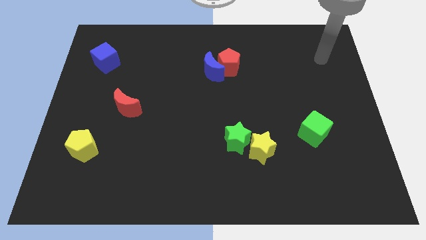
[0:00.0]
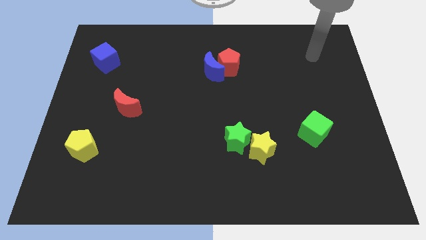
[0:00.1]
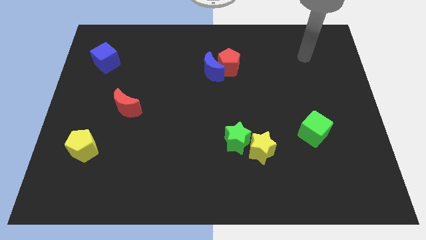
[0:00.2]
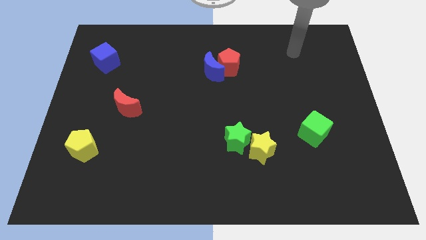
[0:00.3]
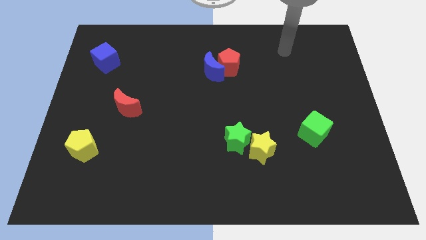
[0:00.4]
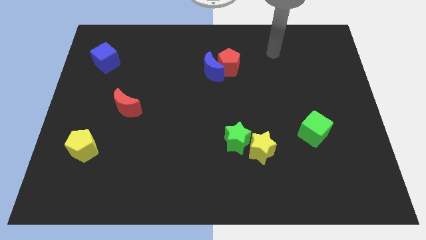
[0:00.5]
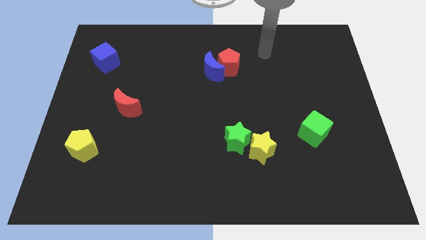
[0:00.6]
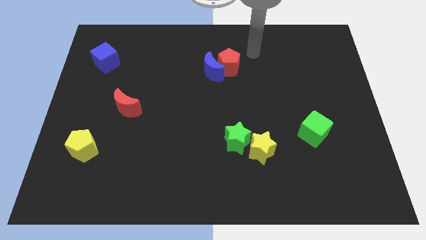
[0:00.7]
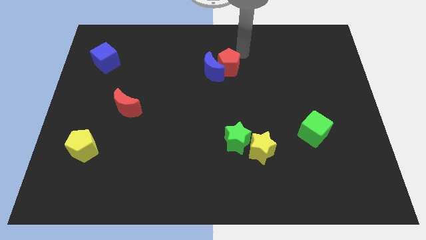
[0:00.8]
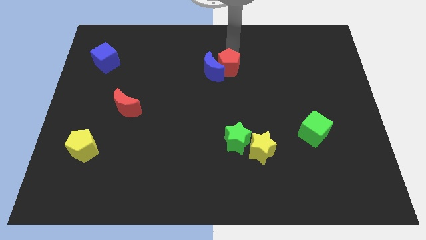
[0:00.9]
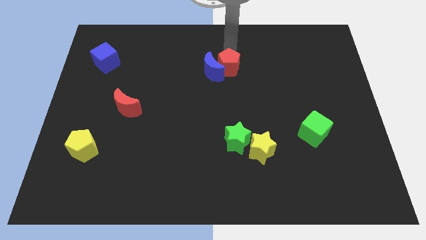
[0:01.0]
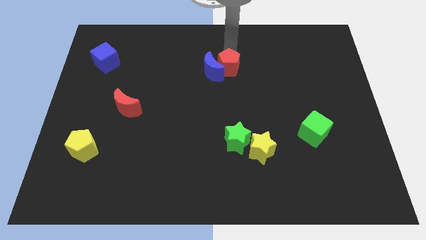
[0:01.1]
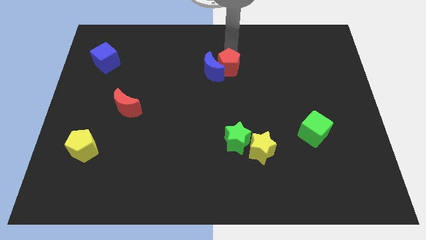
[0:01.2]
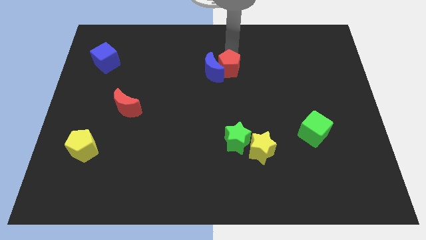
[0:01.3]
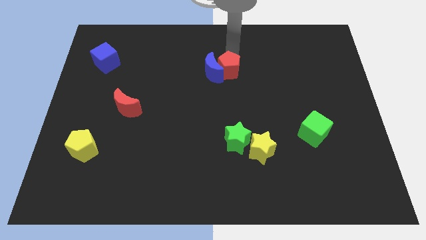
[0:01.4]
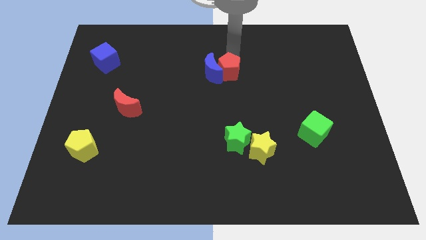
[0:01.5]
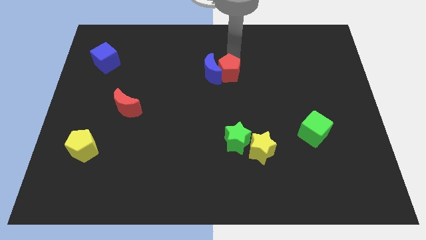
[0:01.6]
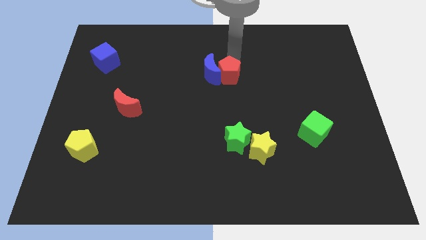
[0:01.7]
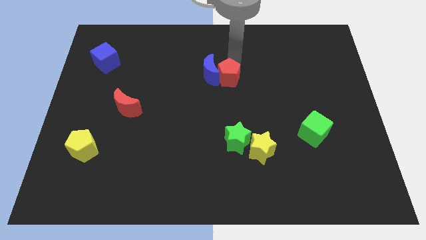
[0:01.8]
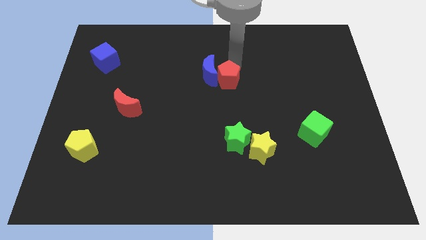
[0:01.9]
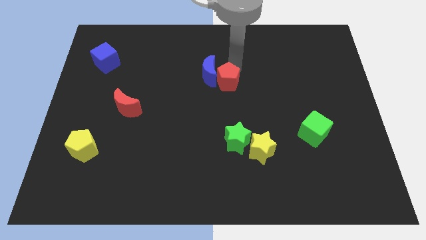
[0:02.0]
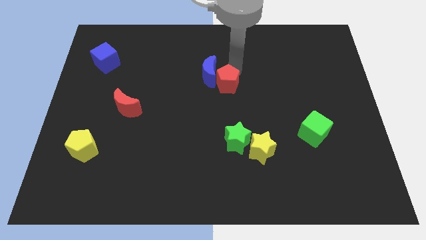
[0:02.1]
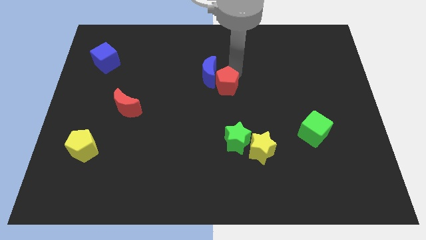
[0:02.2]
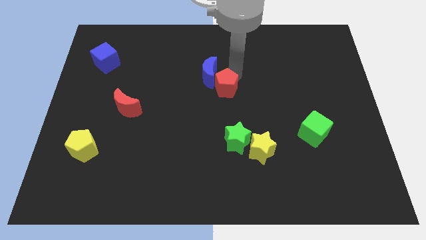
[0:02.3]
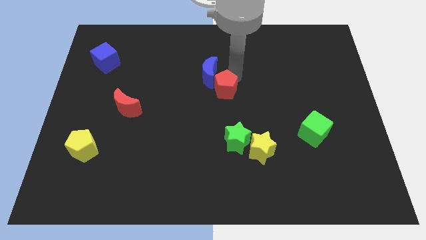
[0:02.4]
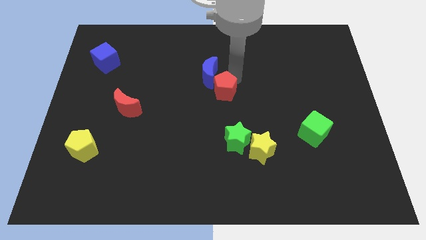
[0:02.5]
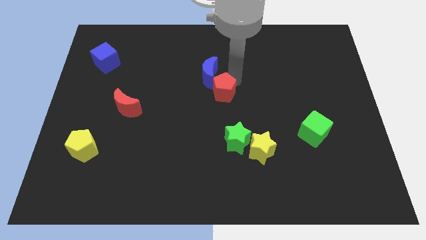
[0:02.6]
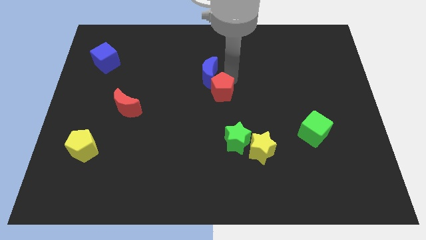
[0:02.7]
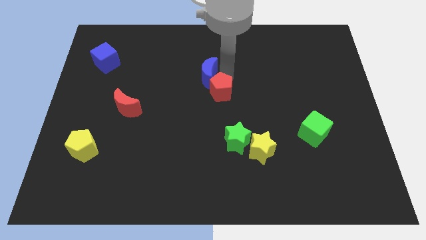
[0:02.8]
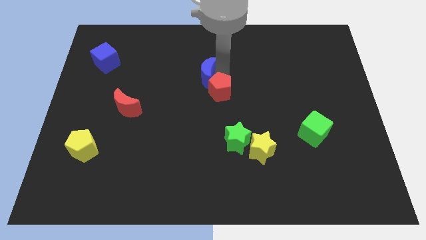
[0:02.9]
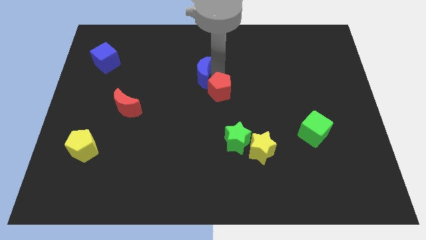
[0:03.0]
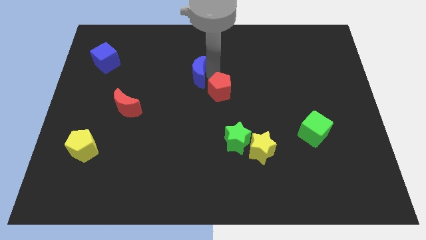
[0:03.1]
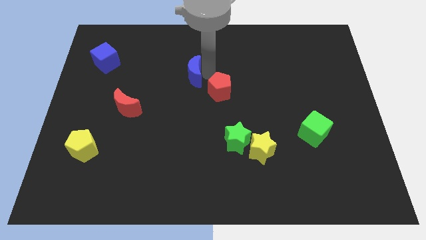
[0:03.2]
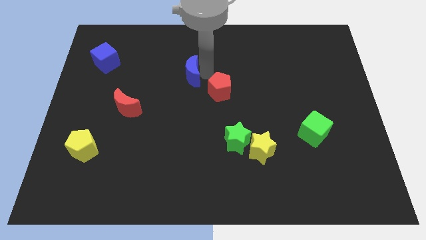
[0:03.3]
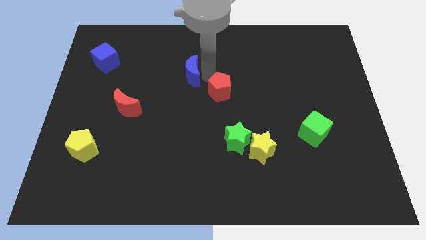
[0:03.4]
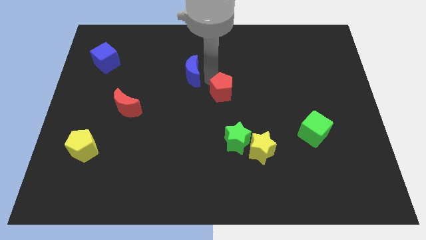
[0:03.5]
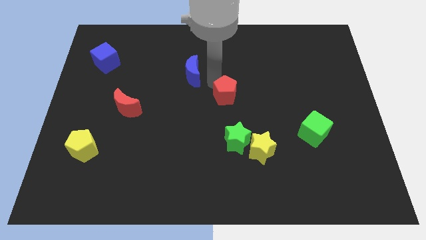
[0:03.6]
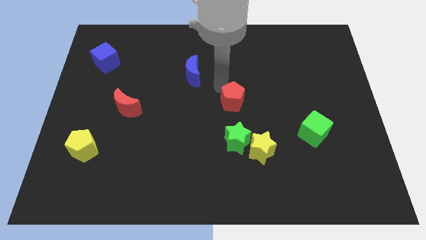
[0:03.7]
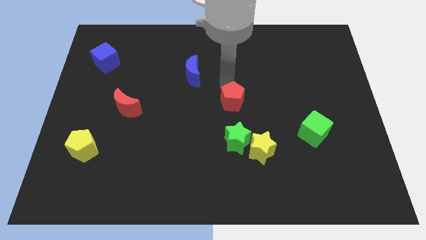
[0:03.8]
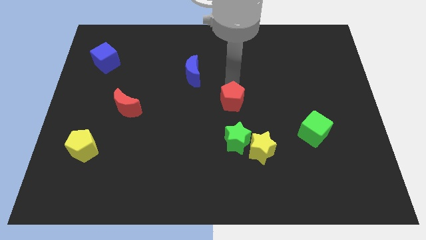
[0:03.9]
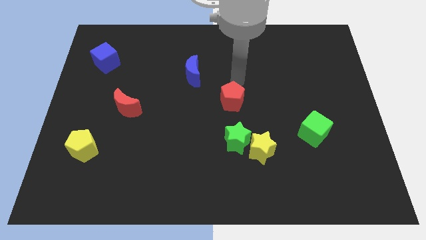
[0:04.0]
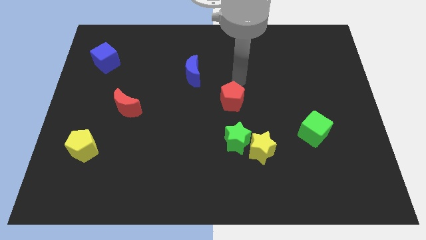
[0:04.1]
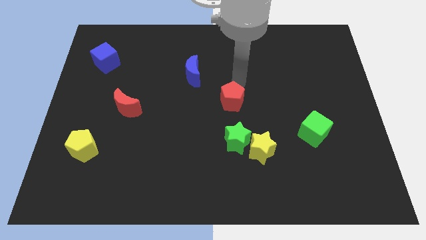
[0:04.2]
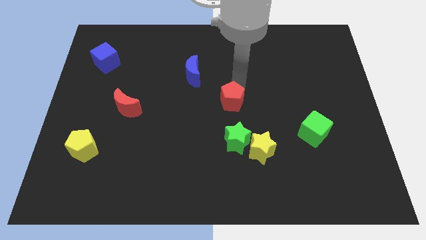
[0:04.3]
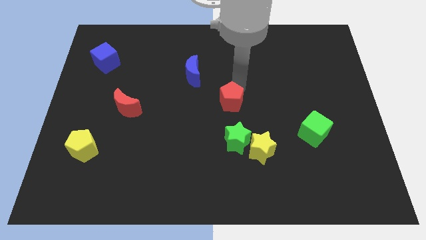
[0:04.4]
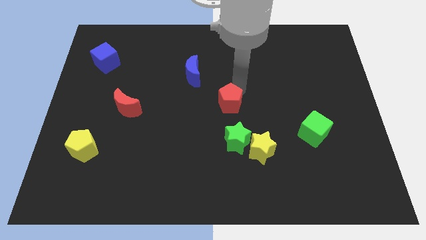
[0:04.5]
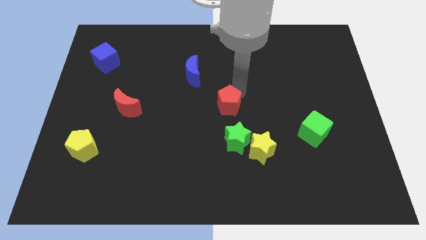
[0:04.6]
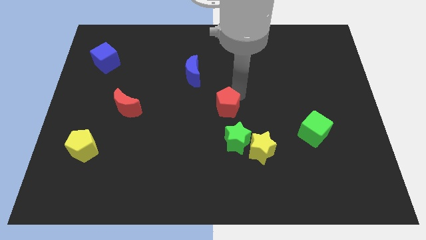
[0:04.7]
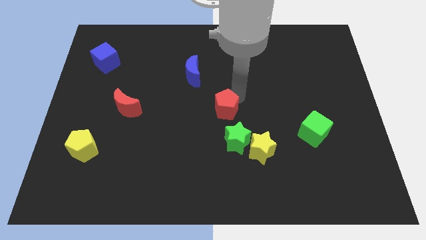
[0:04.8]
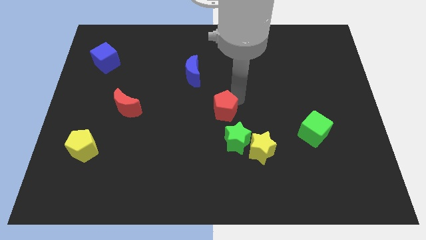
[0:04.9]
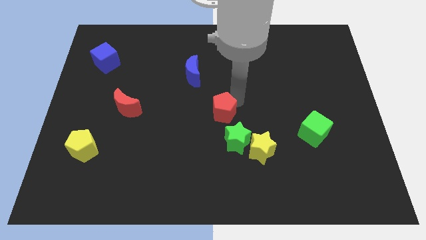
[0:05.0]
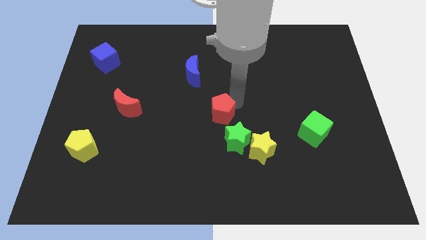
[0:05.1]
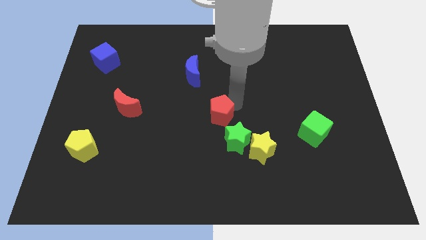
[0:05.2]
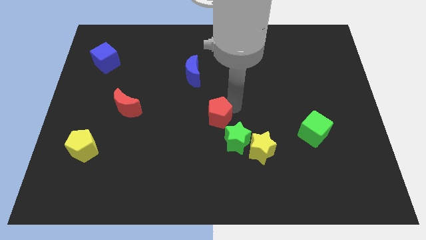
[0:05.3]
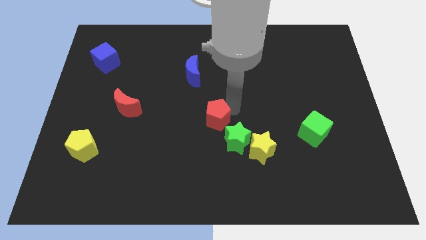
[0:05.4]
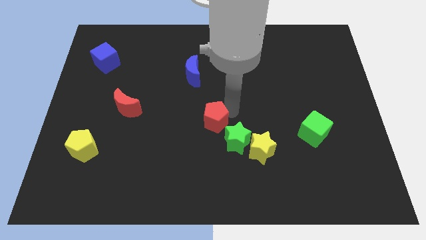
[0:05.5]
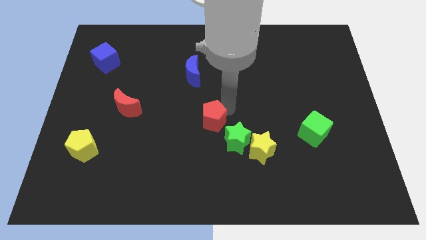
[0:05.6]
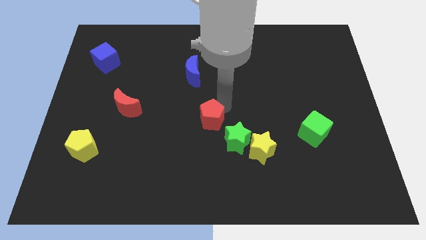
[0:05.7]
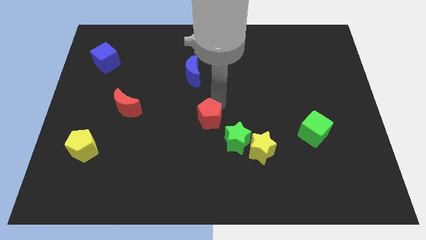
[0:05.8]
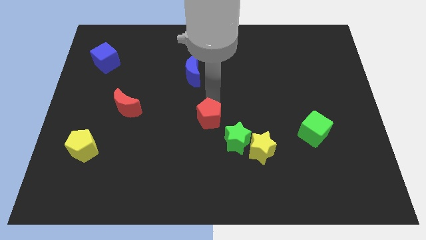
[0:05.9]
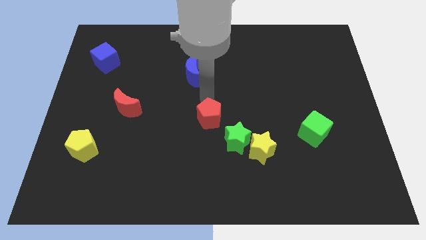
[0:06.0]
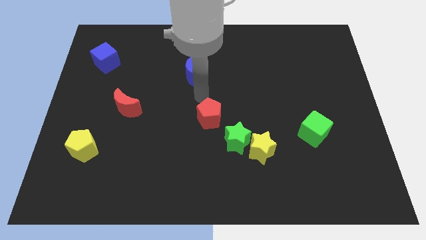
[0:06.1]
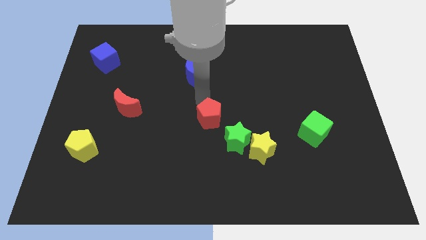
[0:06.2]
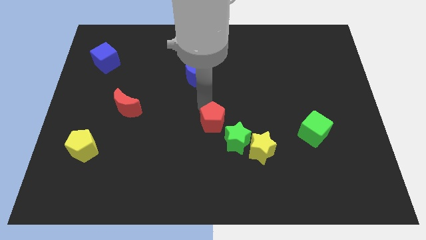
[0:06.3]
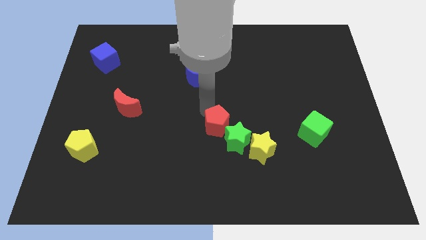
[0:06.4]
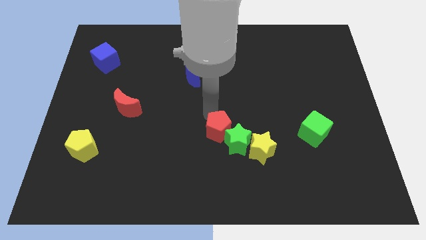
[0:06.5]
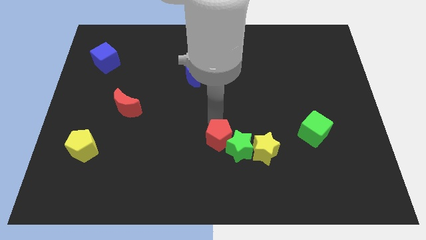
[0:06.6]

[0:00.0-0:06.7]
move the red pentagon downwards

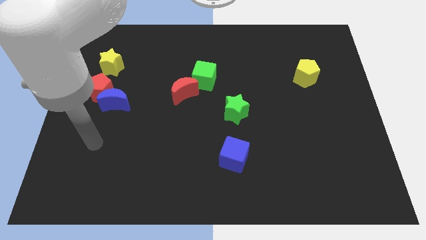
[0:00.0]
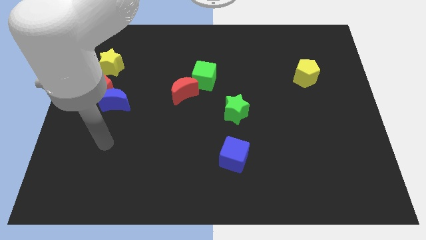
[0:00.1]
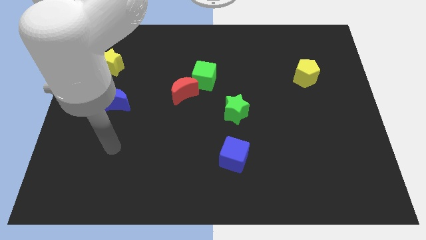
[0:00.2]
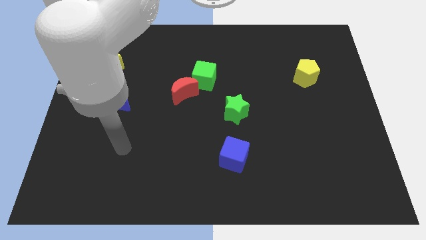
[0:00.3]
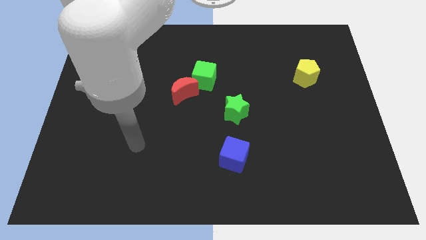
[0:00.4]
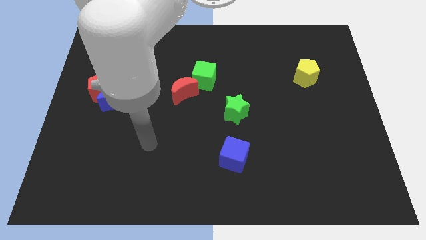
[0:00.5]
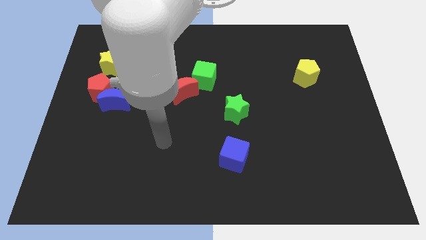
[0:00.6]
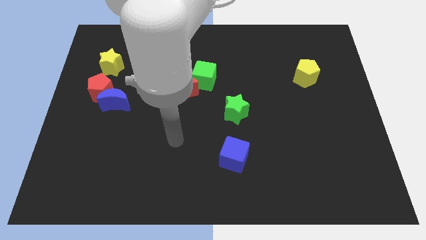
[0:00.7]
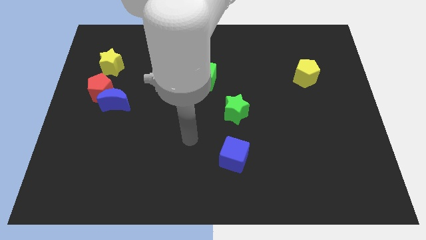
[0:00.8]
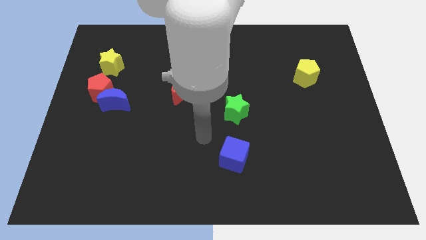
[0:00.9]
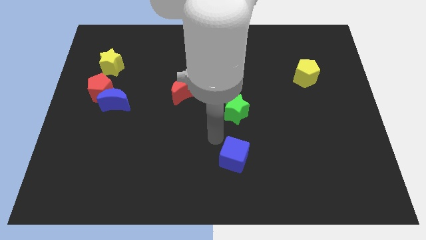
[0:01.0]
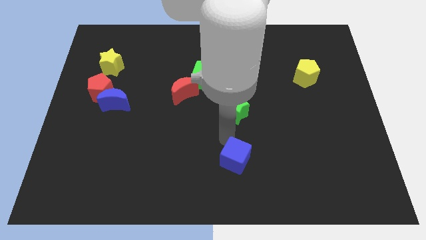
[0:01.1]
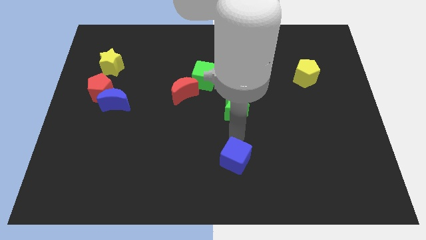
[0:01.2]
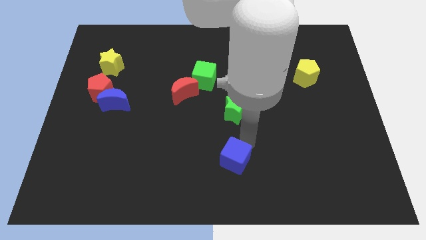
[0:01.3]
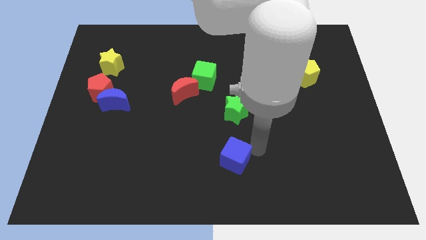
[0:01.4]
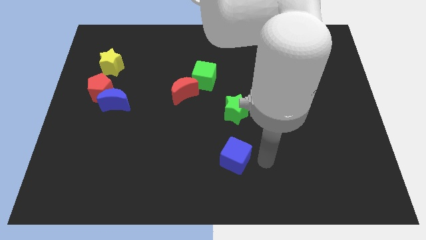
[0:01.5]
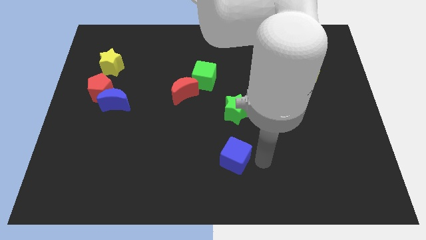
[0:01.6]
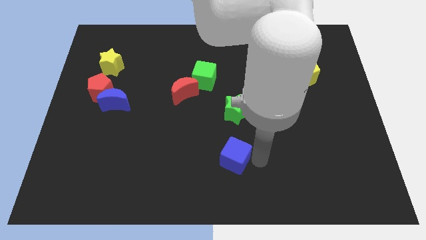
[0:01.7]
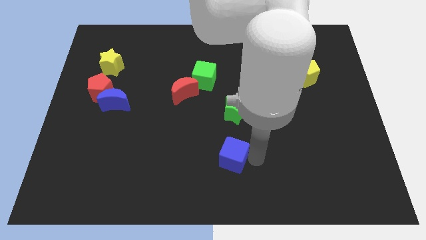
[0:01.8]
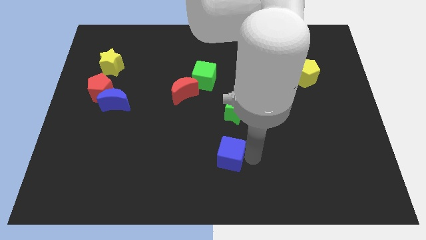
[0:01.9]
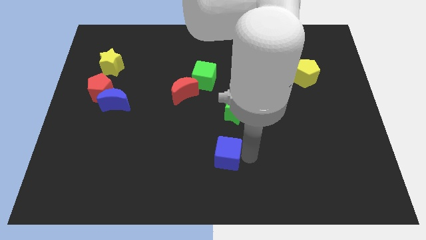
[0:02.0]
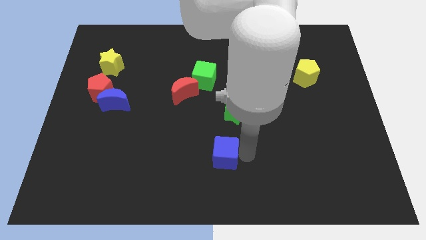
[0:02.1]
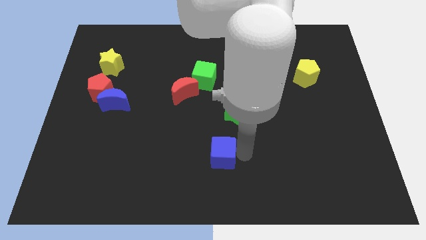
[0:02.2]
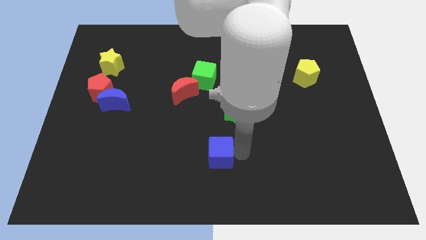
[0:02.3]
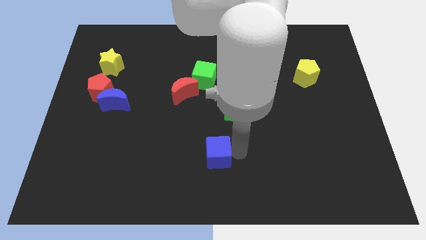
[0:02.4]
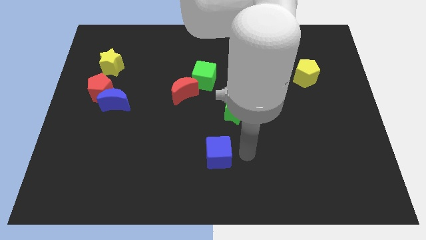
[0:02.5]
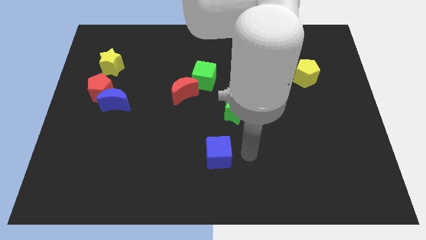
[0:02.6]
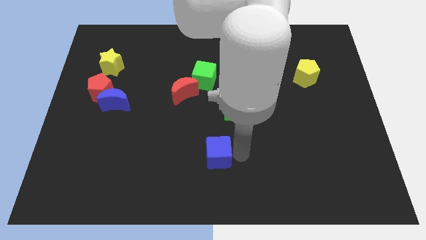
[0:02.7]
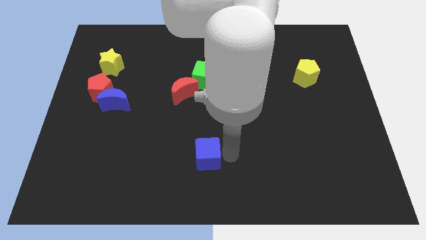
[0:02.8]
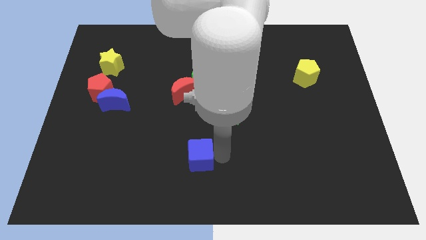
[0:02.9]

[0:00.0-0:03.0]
slide the blue cube to the left slightly
